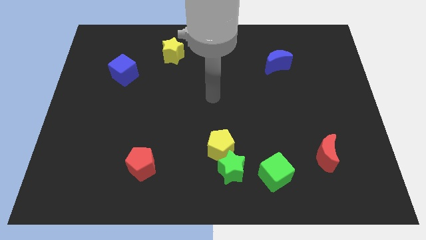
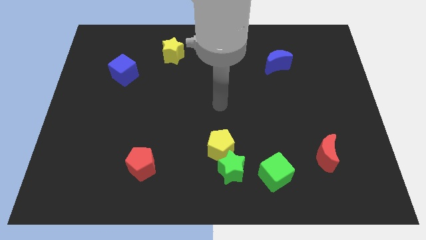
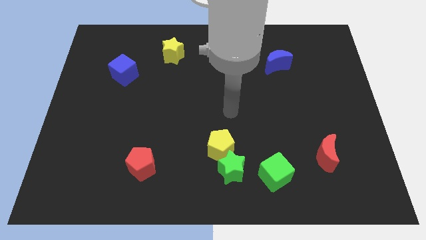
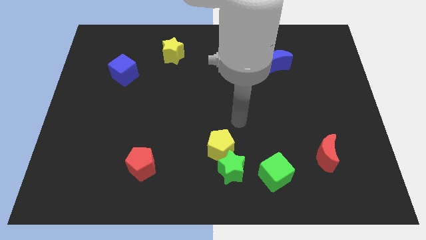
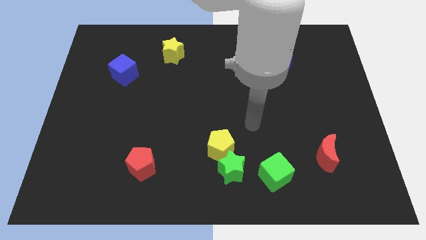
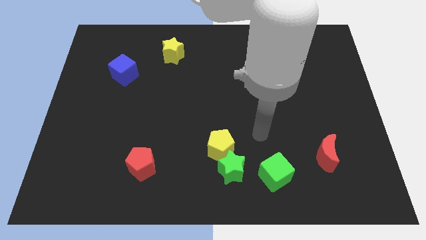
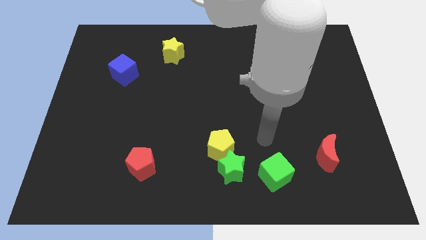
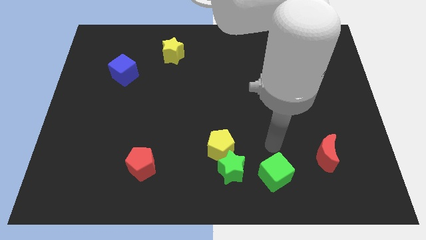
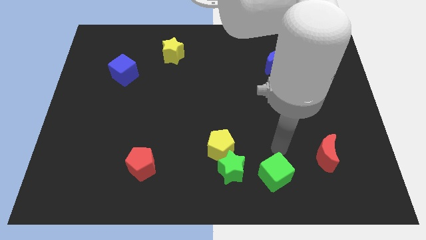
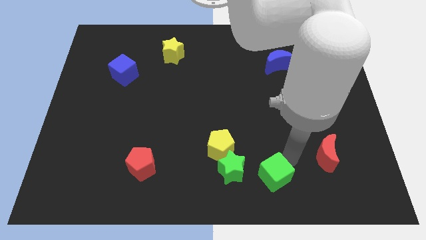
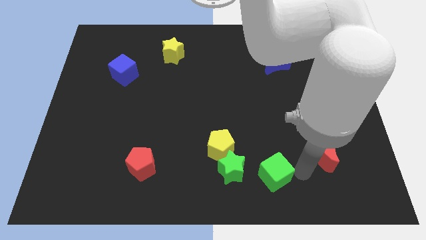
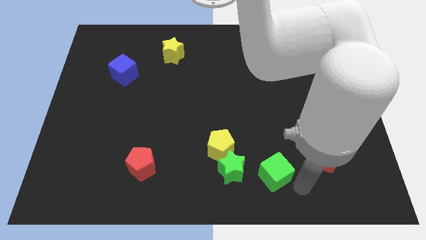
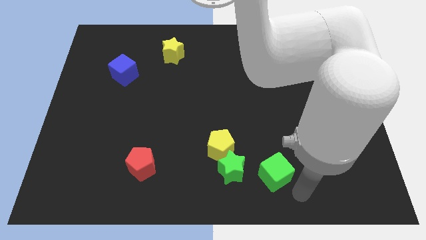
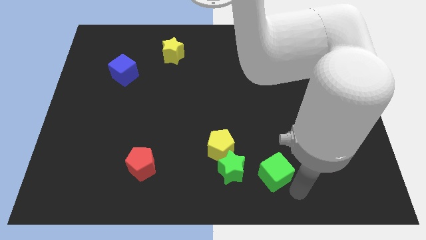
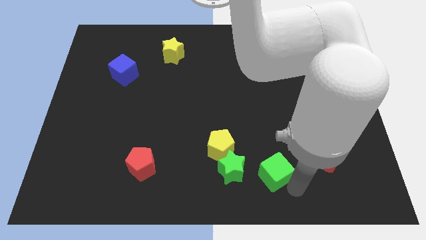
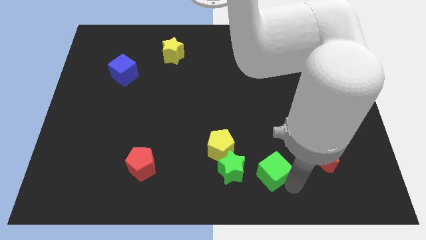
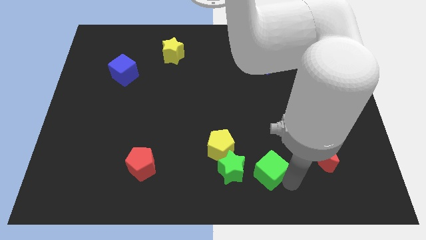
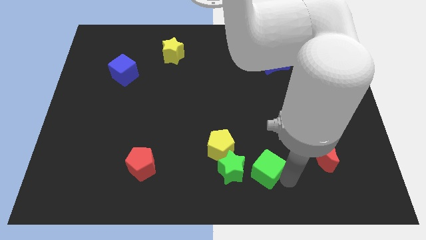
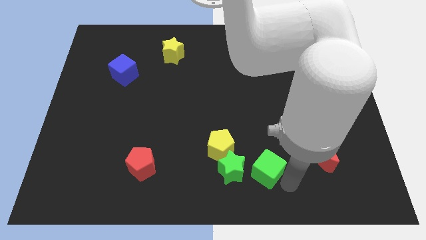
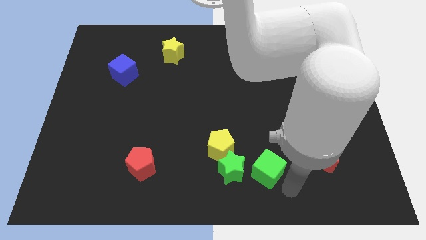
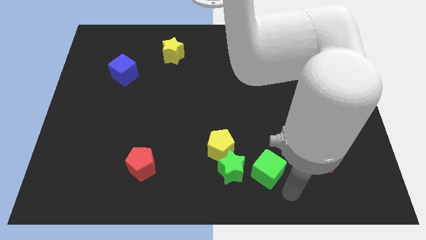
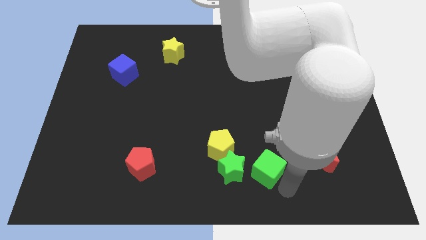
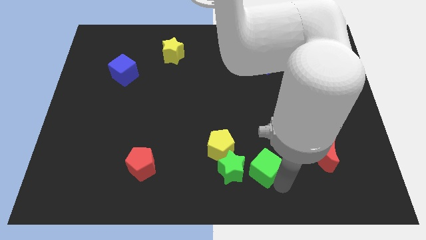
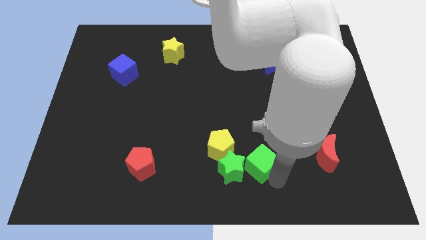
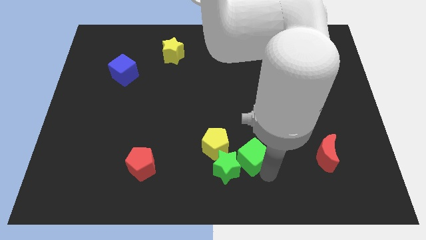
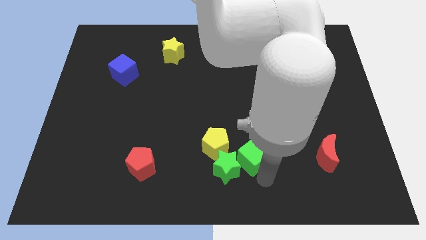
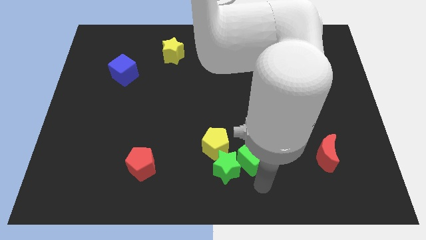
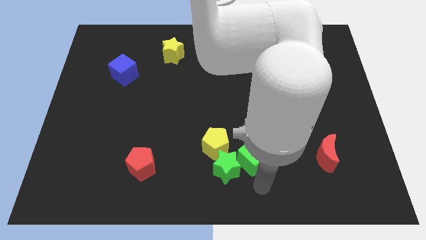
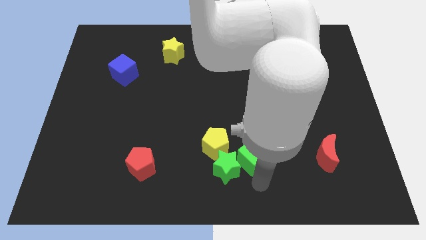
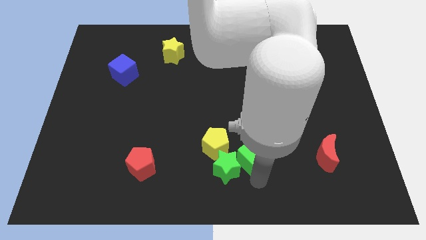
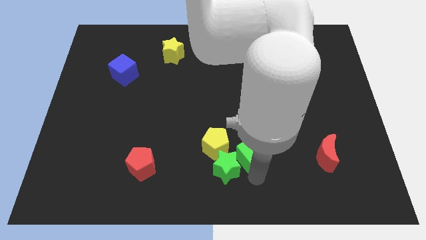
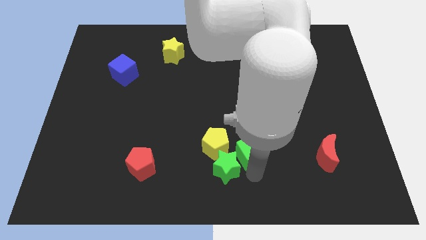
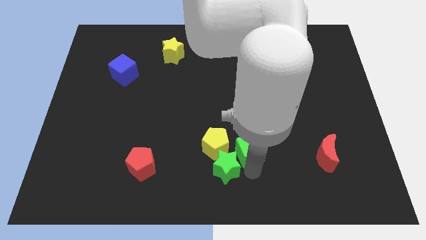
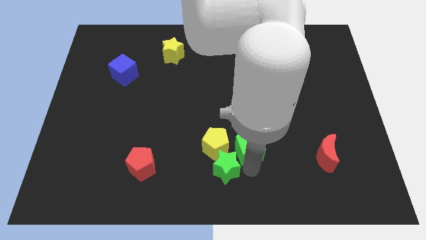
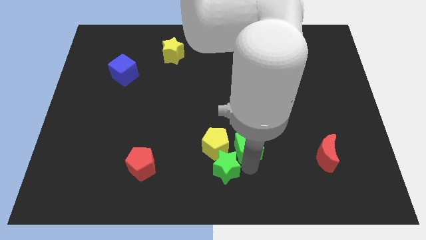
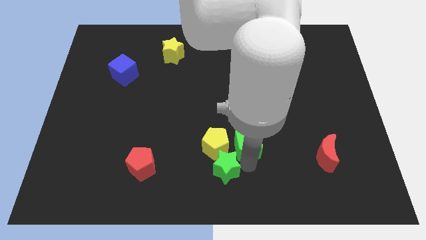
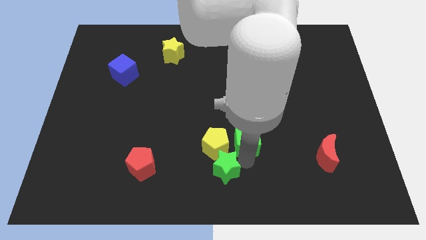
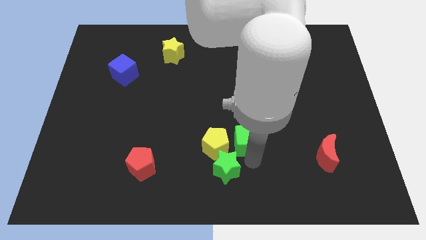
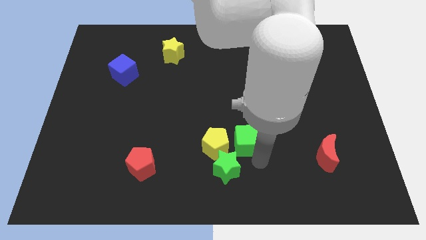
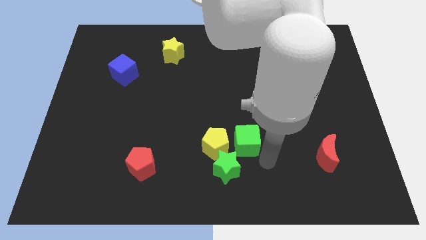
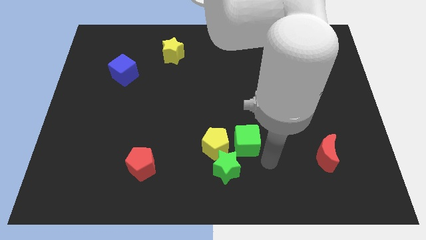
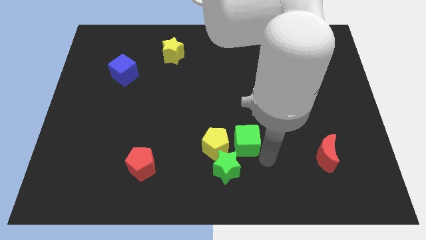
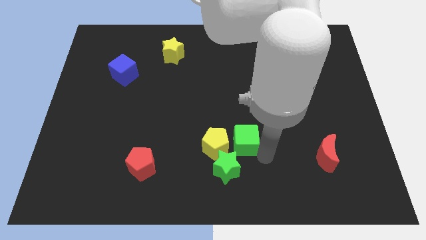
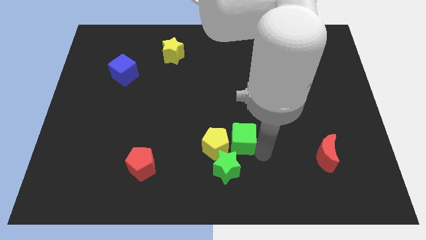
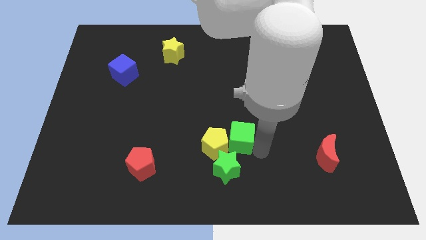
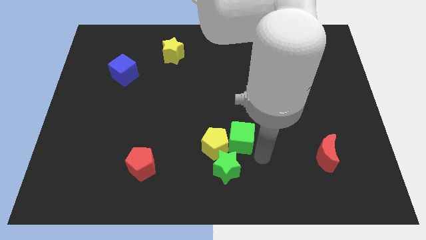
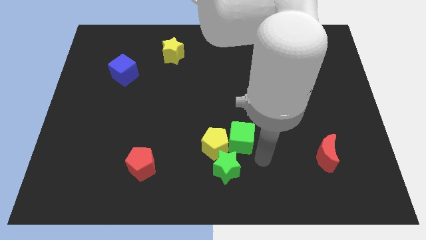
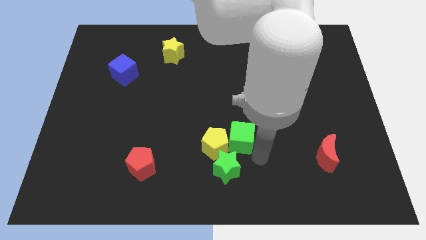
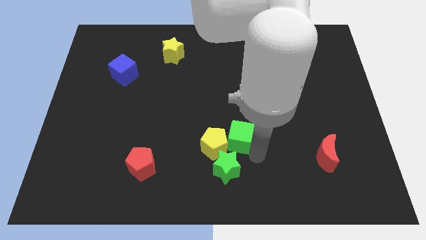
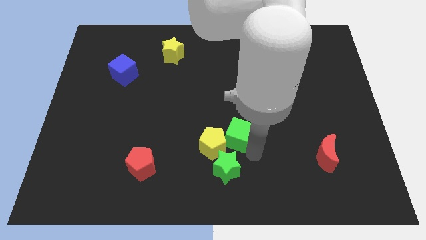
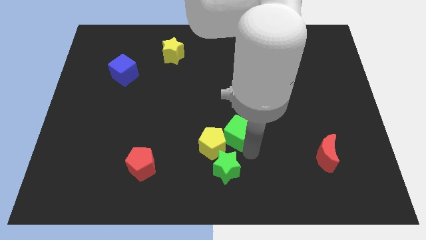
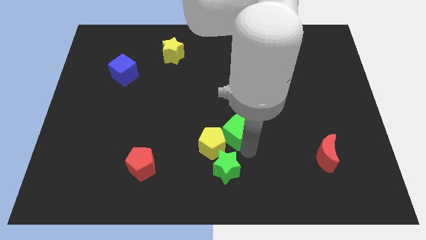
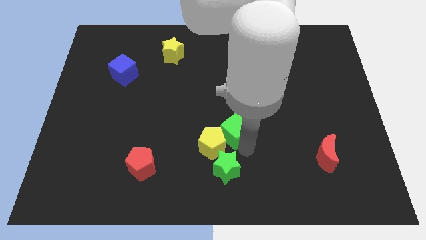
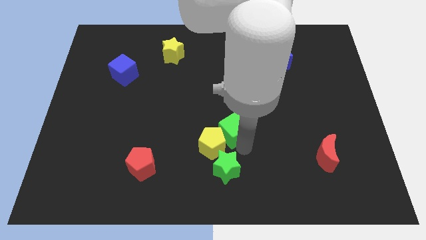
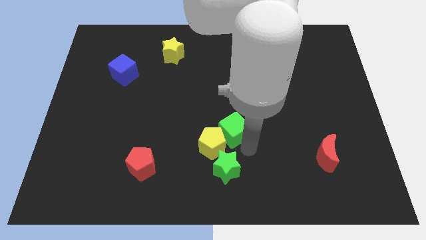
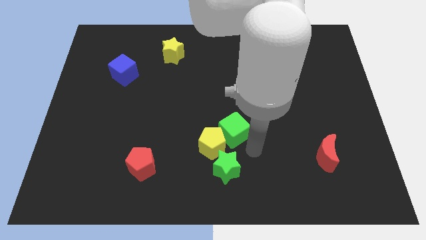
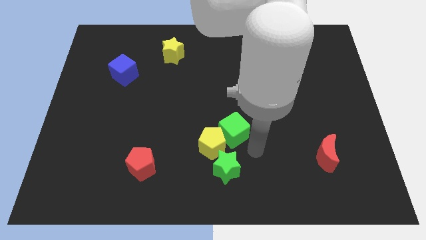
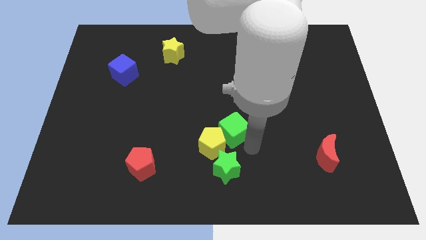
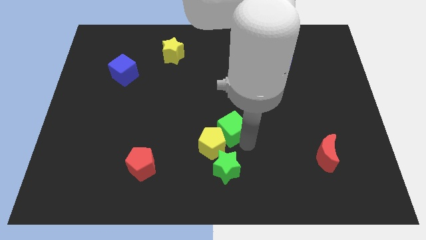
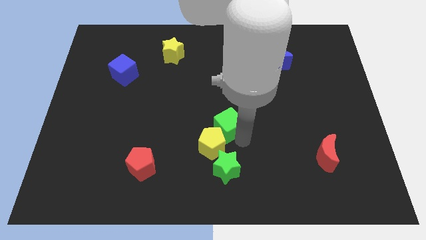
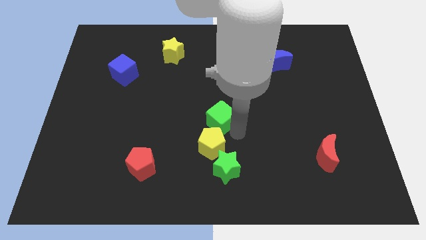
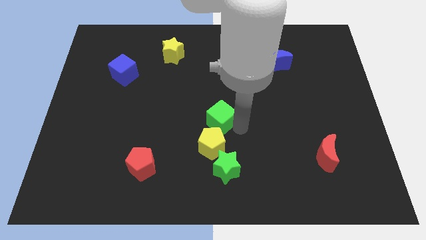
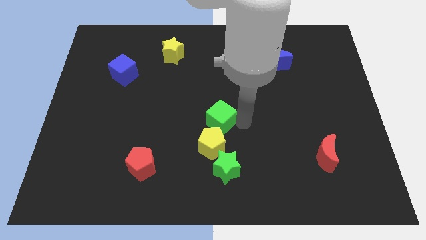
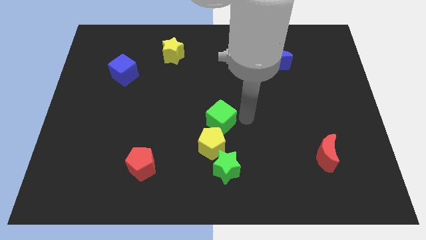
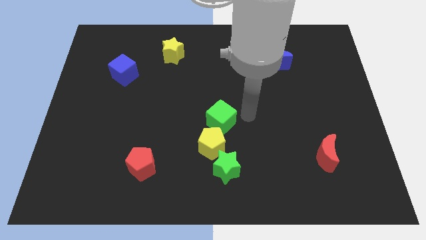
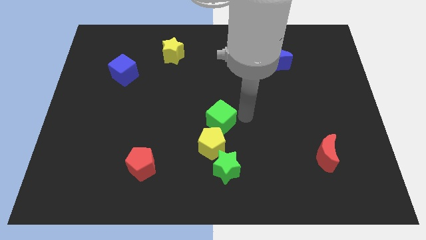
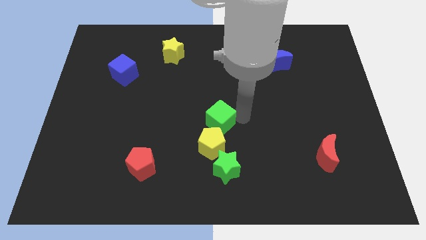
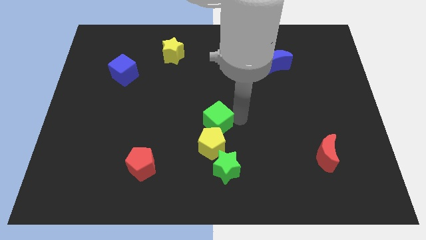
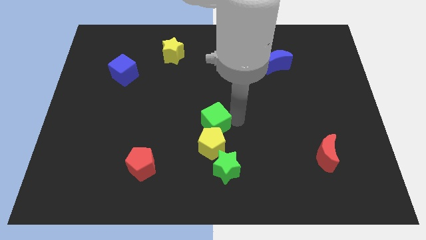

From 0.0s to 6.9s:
put the green cube diagonally up and to the left of the yellow pentagon

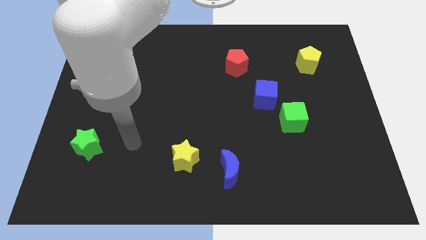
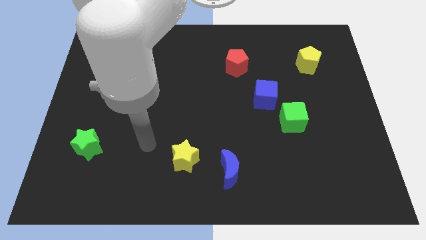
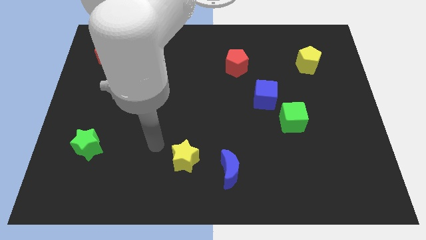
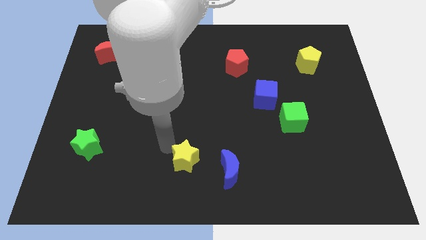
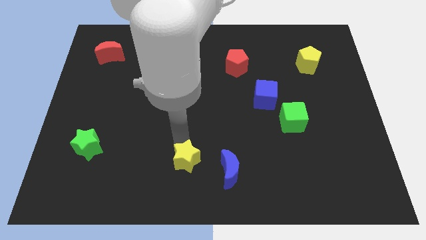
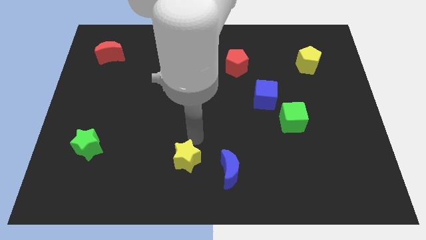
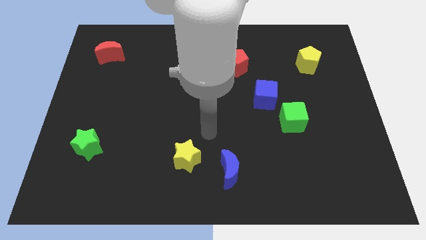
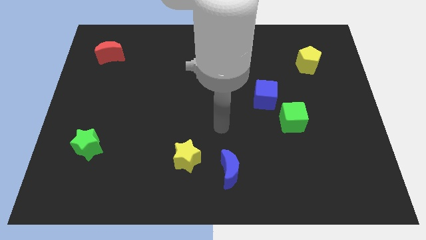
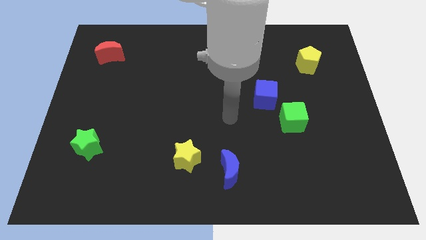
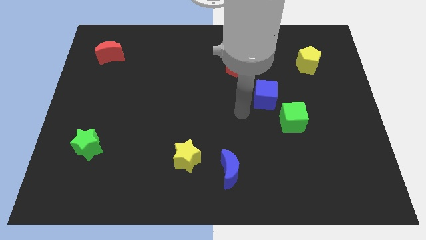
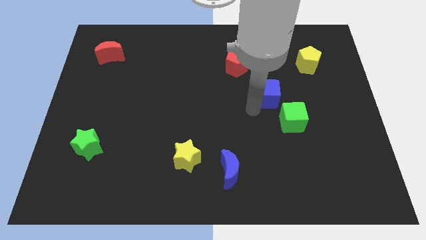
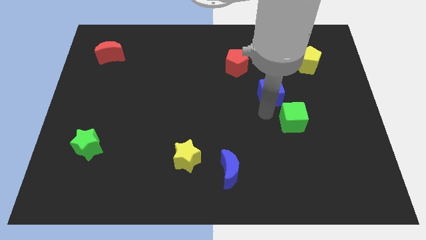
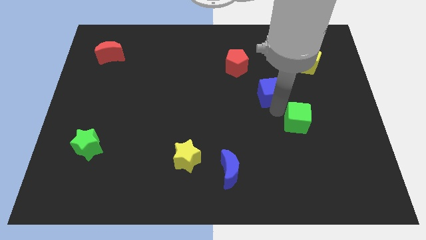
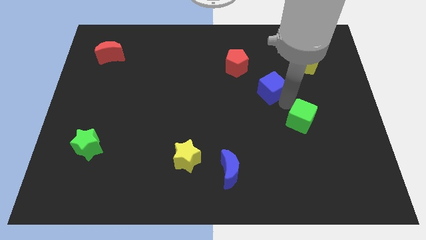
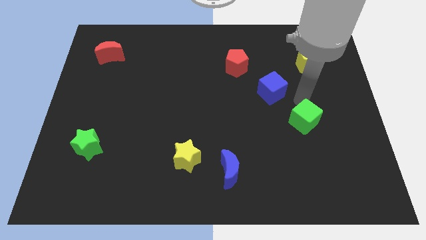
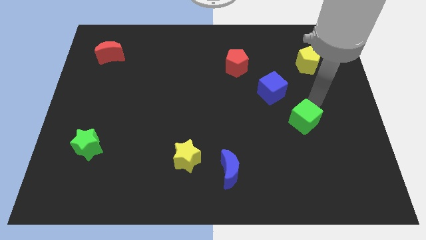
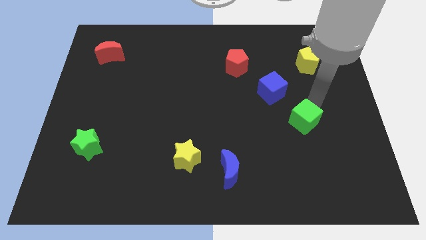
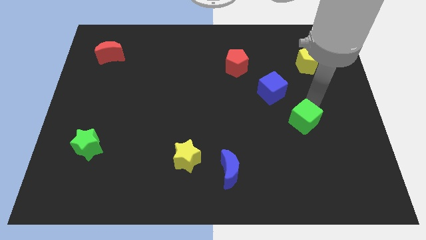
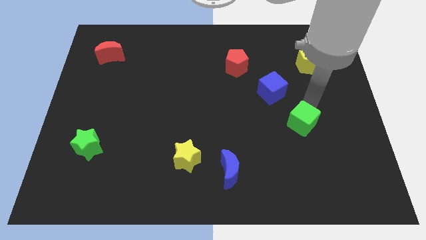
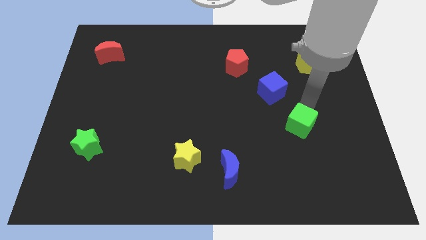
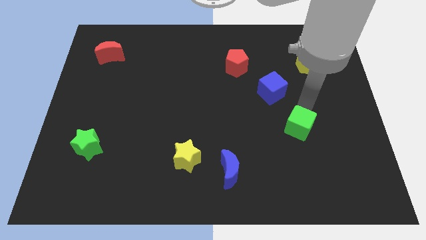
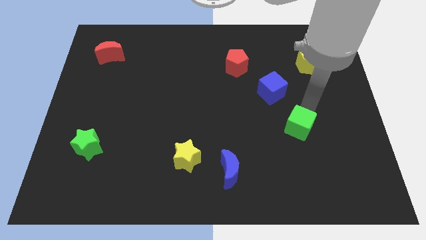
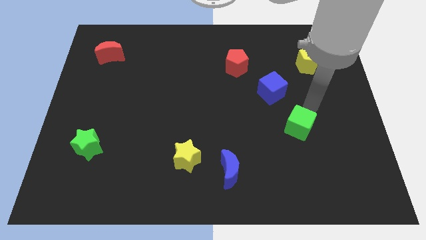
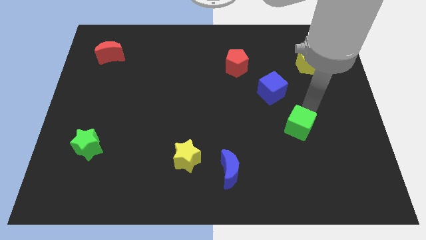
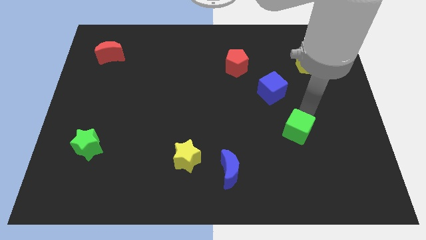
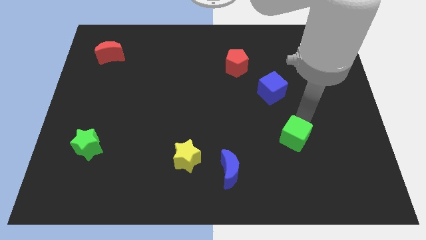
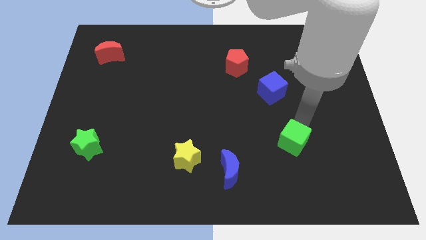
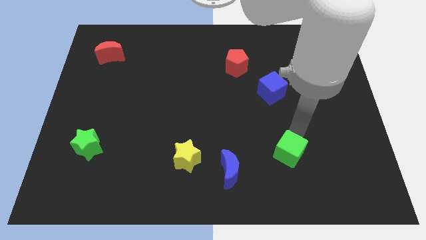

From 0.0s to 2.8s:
push the green cube just right of the blue moon
